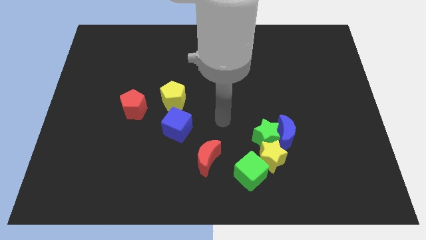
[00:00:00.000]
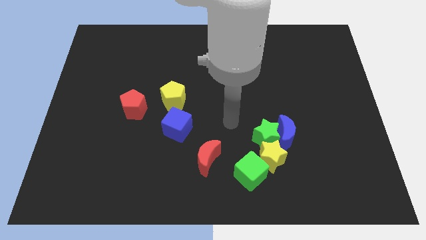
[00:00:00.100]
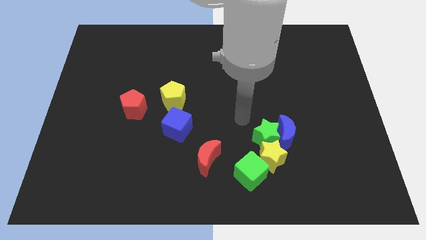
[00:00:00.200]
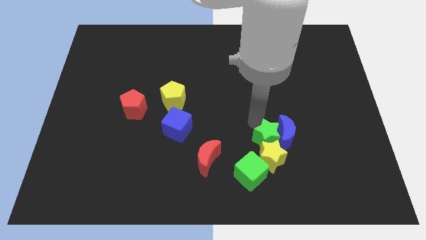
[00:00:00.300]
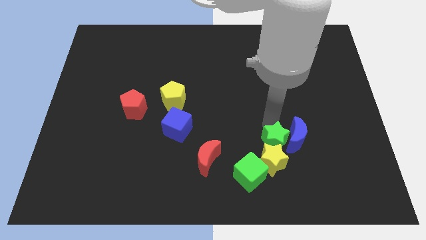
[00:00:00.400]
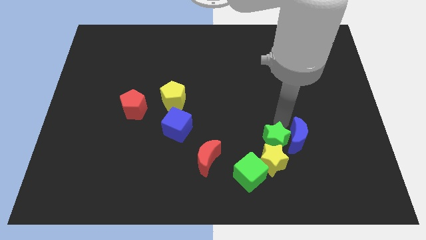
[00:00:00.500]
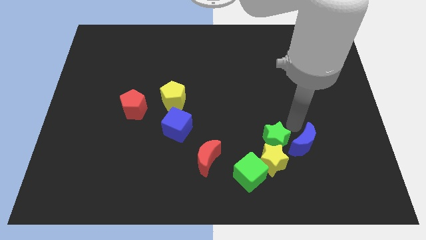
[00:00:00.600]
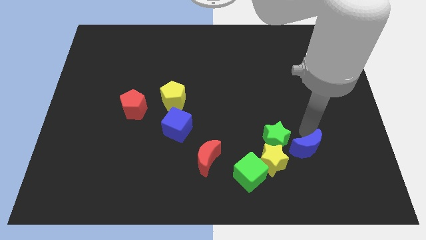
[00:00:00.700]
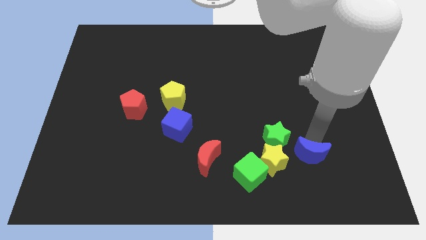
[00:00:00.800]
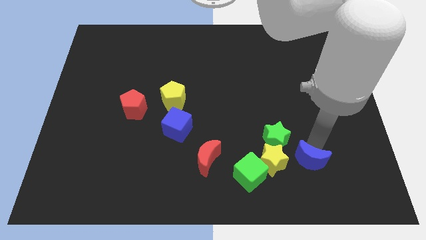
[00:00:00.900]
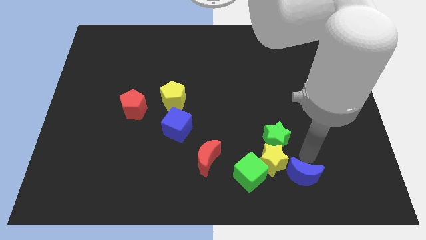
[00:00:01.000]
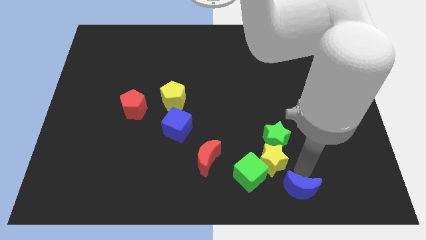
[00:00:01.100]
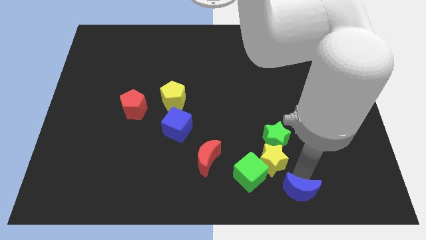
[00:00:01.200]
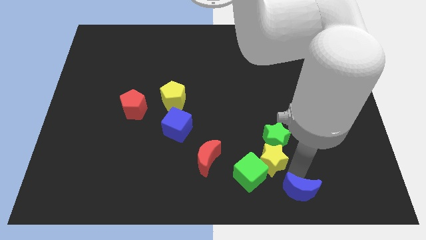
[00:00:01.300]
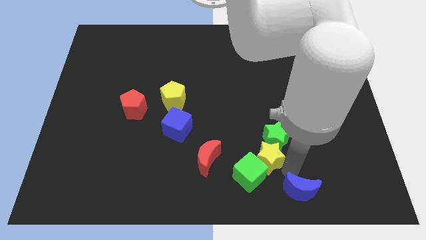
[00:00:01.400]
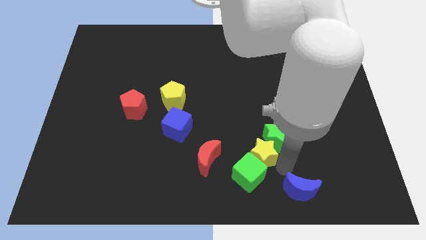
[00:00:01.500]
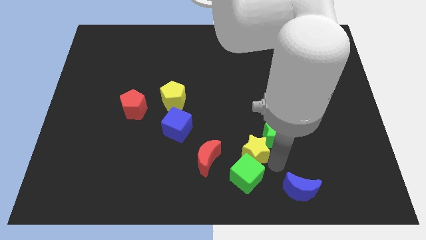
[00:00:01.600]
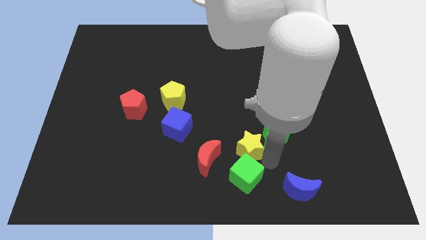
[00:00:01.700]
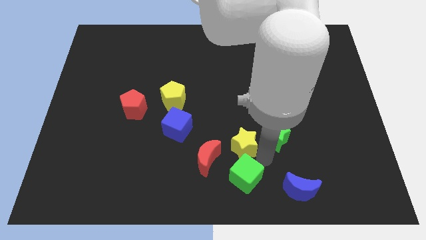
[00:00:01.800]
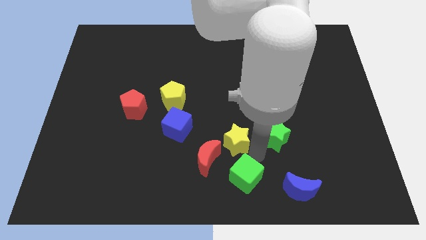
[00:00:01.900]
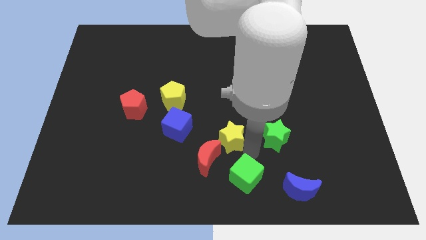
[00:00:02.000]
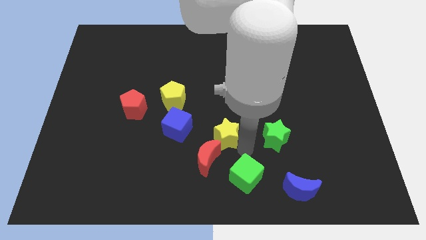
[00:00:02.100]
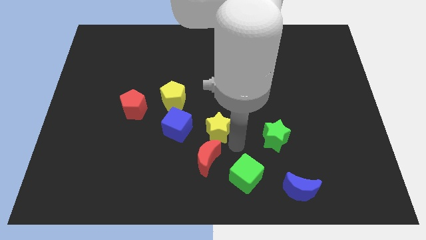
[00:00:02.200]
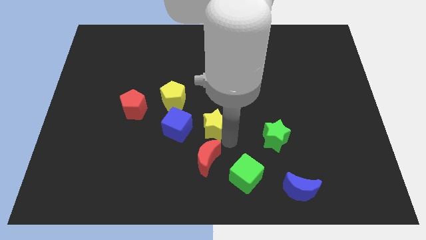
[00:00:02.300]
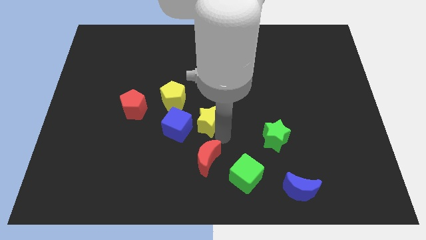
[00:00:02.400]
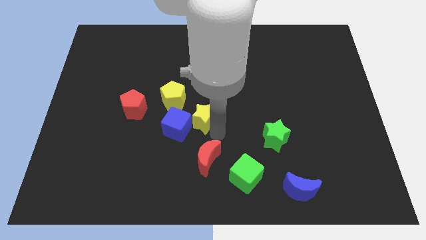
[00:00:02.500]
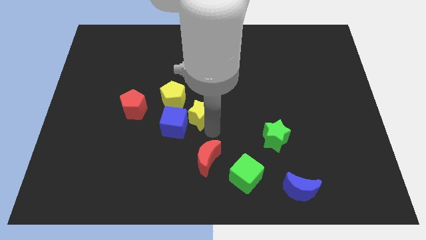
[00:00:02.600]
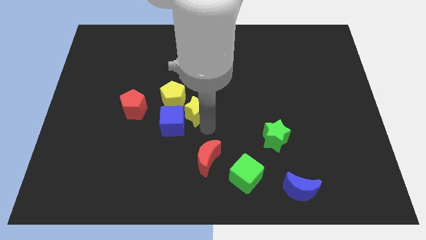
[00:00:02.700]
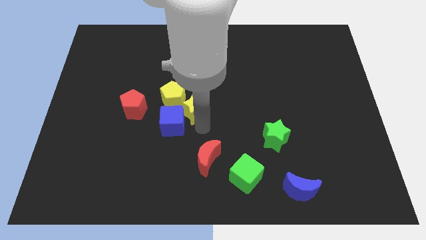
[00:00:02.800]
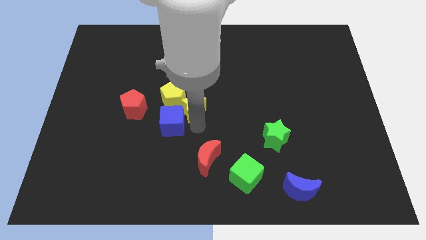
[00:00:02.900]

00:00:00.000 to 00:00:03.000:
slide the yellow star up and then to the left

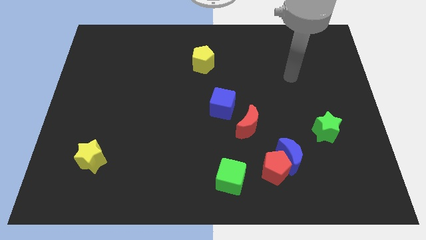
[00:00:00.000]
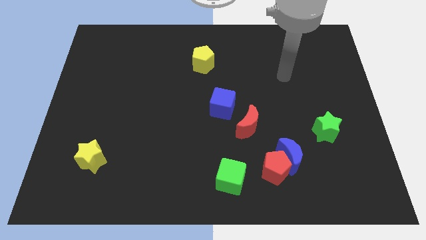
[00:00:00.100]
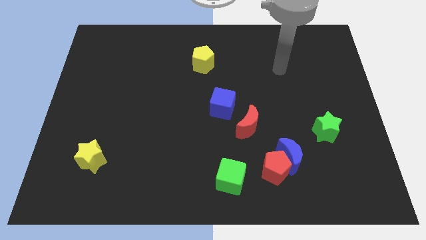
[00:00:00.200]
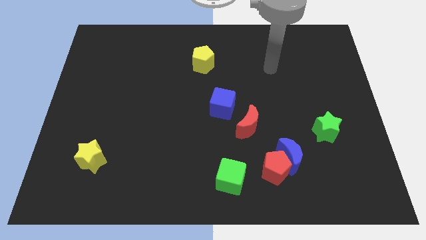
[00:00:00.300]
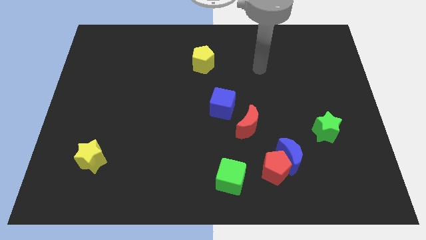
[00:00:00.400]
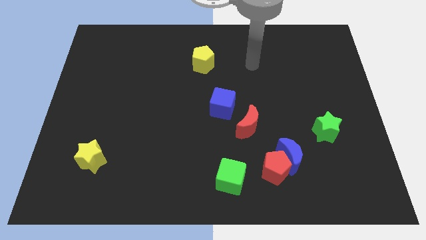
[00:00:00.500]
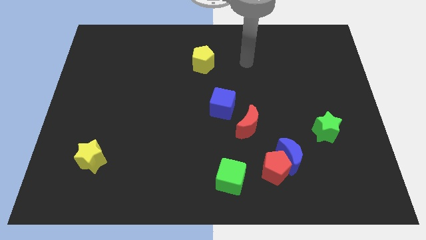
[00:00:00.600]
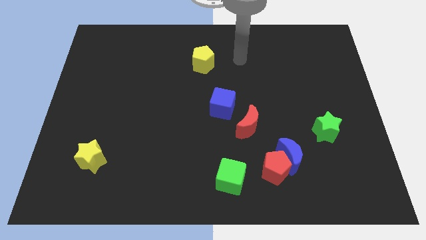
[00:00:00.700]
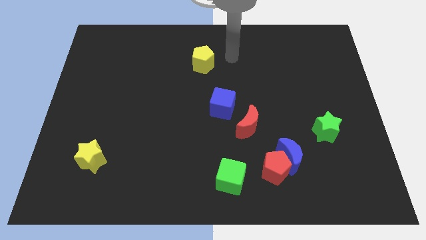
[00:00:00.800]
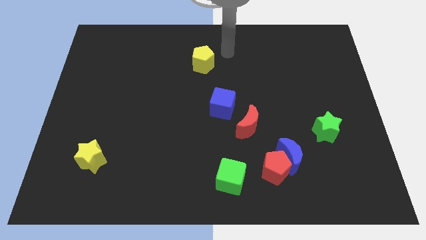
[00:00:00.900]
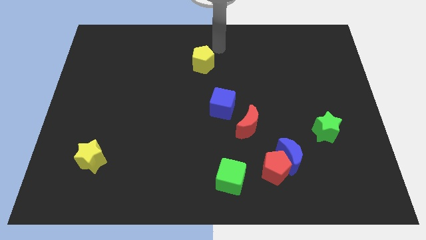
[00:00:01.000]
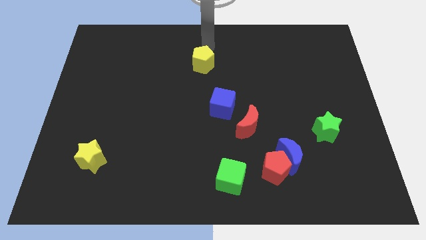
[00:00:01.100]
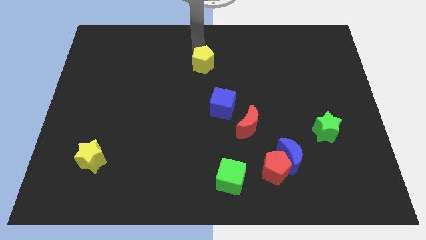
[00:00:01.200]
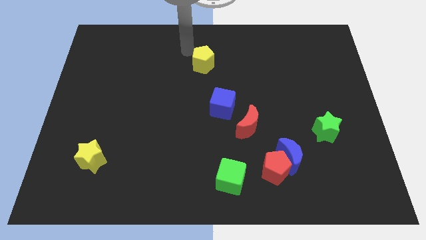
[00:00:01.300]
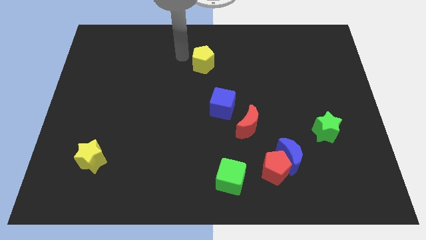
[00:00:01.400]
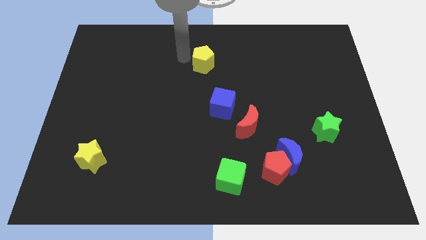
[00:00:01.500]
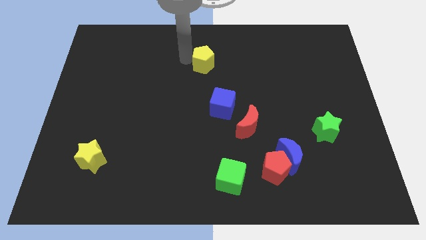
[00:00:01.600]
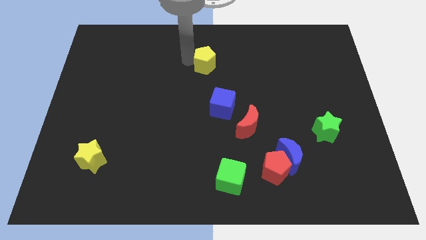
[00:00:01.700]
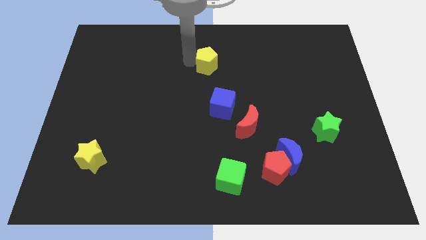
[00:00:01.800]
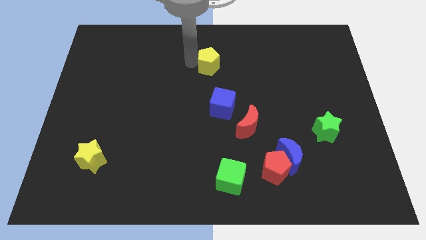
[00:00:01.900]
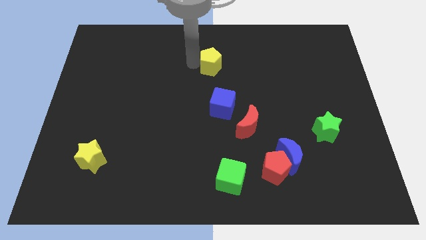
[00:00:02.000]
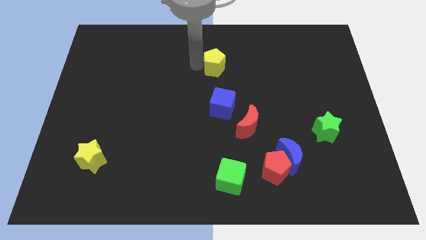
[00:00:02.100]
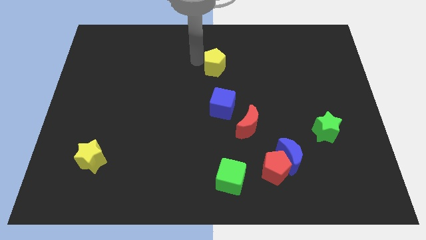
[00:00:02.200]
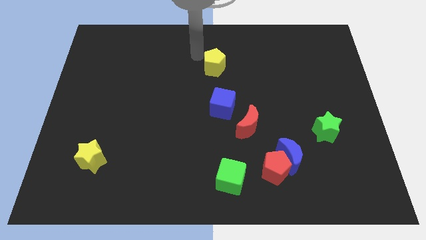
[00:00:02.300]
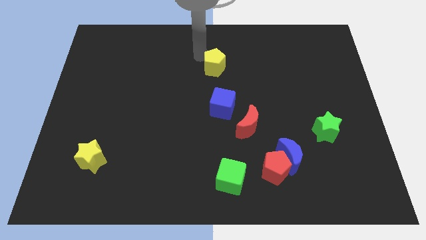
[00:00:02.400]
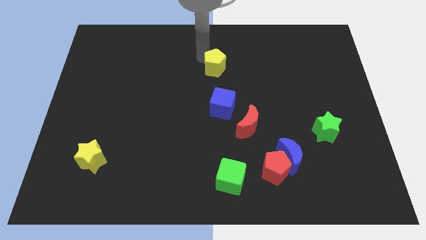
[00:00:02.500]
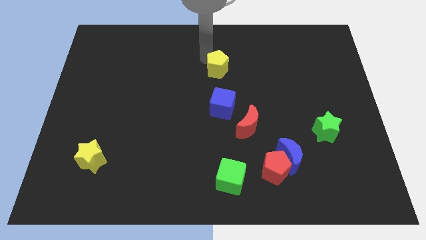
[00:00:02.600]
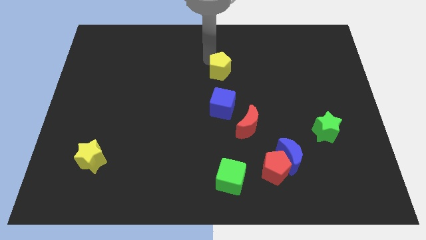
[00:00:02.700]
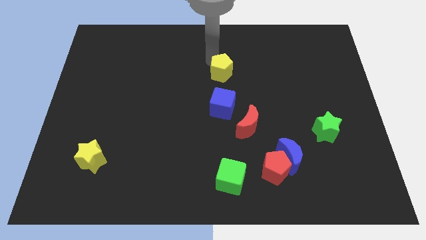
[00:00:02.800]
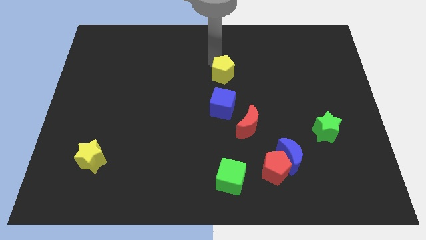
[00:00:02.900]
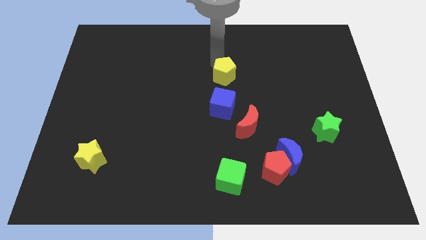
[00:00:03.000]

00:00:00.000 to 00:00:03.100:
push the yellow pentagon a little down and to the right

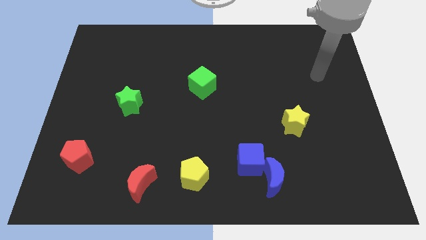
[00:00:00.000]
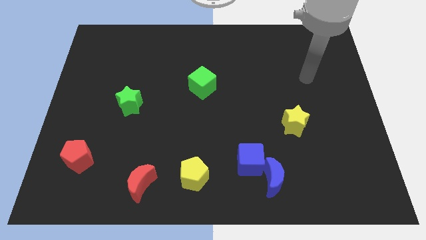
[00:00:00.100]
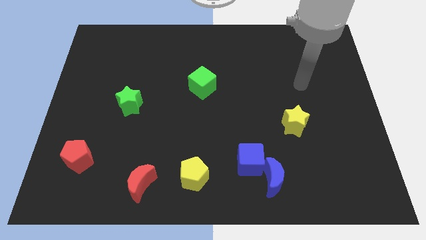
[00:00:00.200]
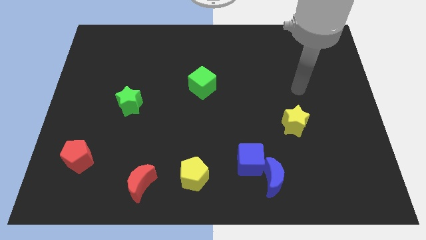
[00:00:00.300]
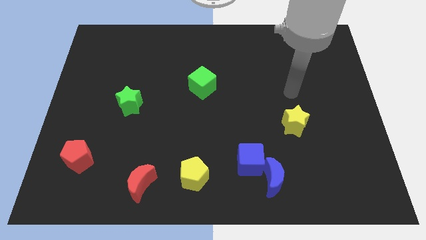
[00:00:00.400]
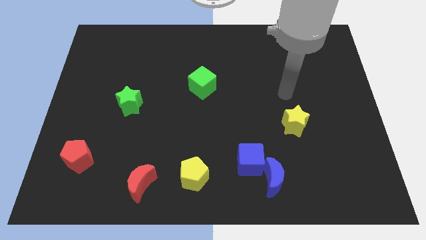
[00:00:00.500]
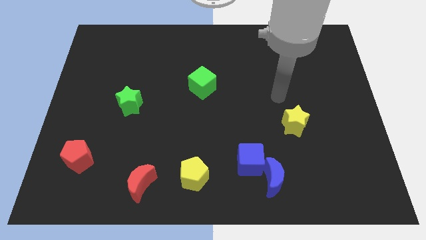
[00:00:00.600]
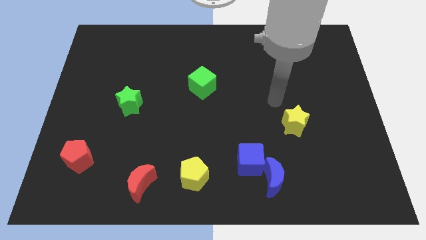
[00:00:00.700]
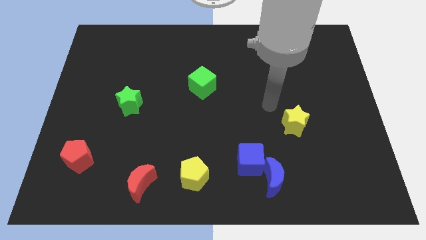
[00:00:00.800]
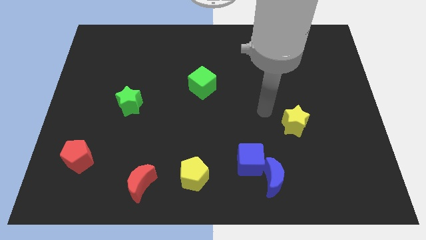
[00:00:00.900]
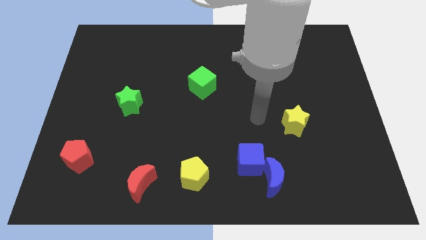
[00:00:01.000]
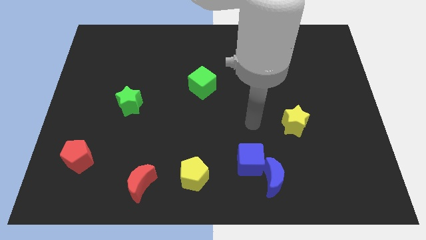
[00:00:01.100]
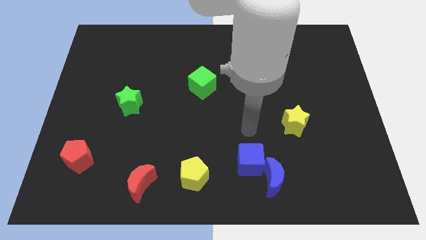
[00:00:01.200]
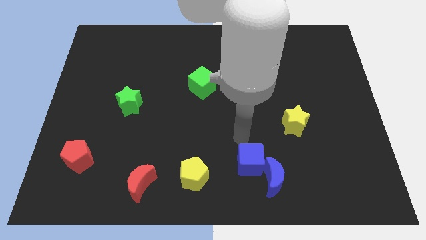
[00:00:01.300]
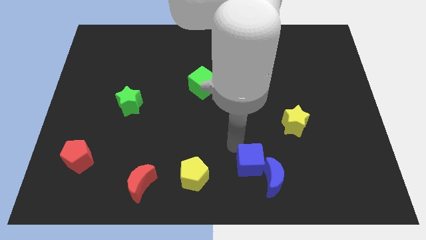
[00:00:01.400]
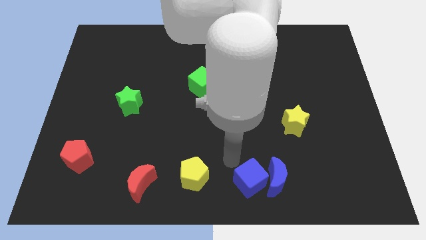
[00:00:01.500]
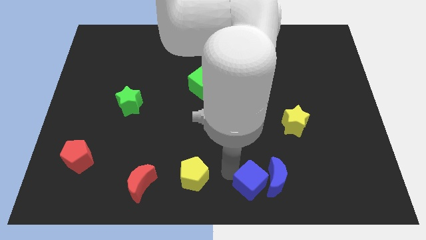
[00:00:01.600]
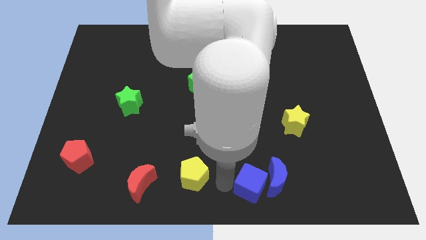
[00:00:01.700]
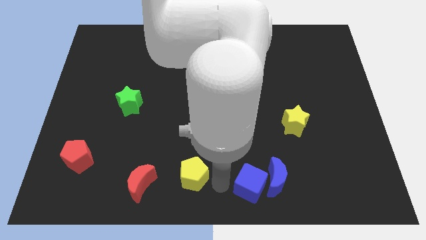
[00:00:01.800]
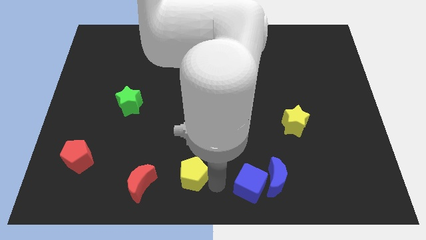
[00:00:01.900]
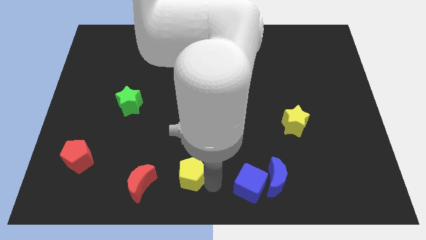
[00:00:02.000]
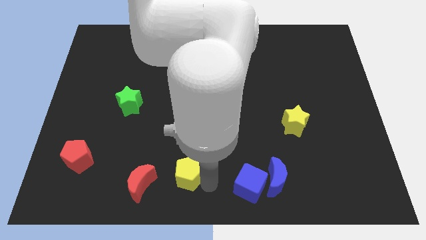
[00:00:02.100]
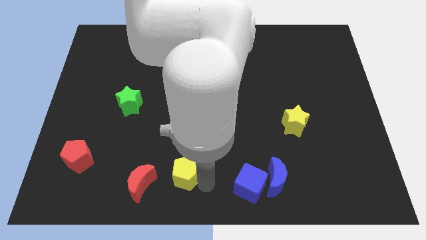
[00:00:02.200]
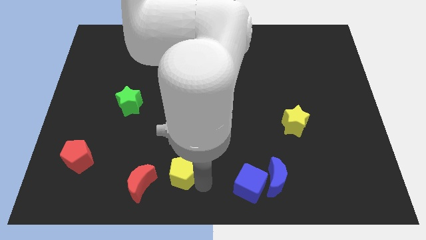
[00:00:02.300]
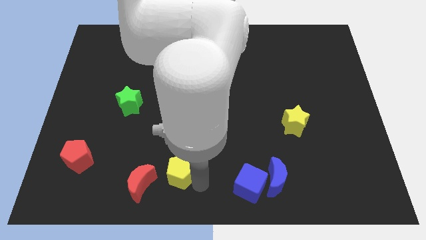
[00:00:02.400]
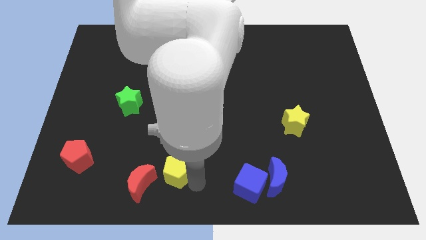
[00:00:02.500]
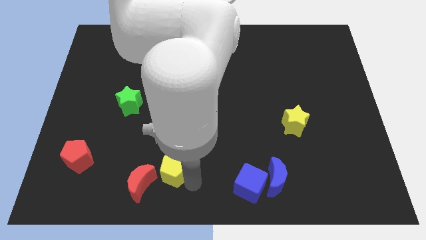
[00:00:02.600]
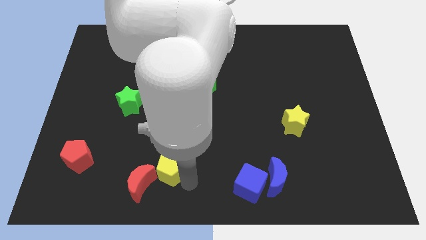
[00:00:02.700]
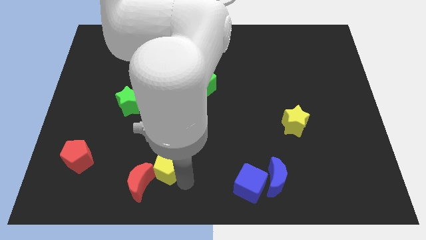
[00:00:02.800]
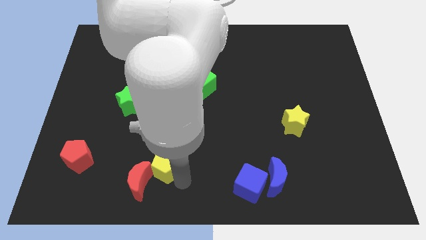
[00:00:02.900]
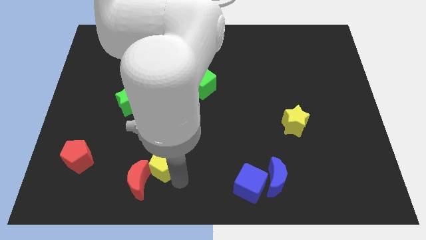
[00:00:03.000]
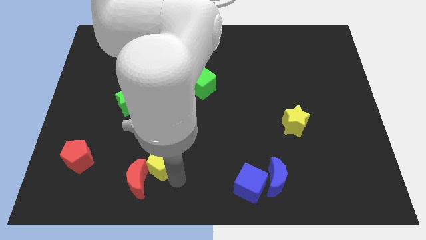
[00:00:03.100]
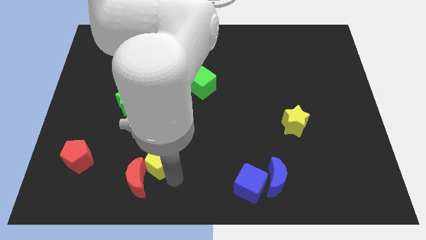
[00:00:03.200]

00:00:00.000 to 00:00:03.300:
push the yellow pentagon somewhat to the left
